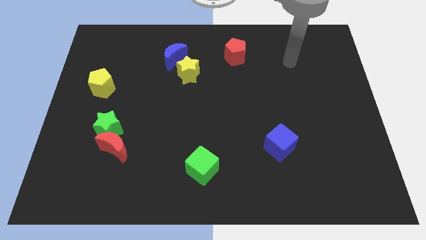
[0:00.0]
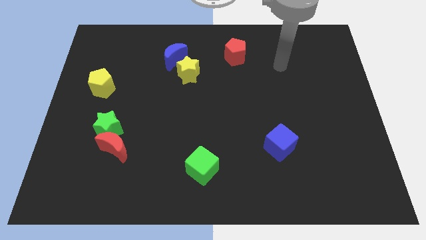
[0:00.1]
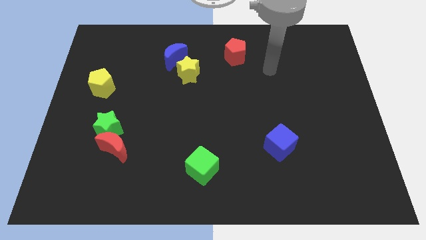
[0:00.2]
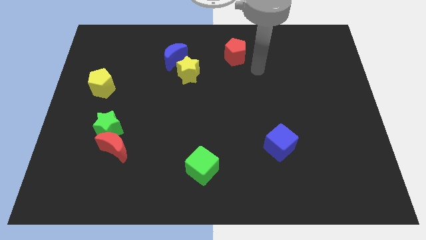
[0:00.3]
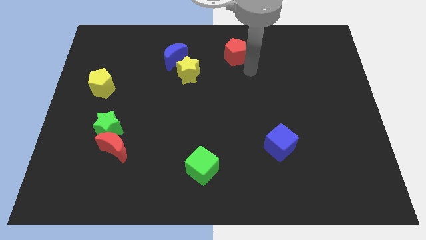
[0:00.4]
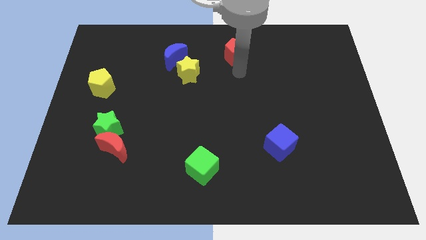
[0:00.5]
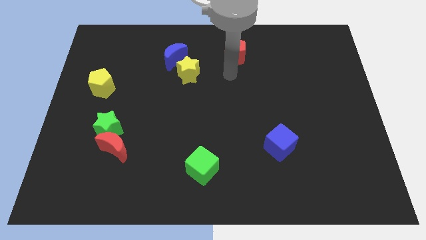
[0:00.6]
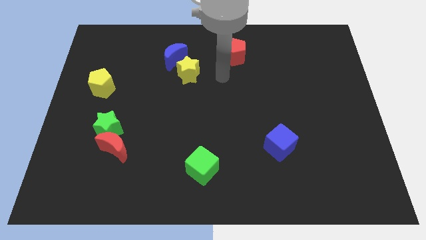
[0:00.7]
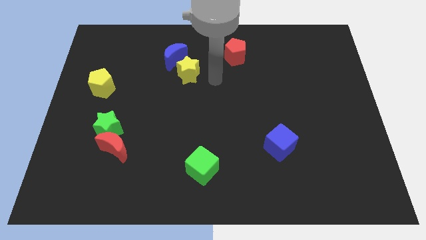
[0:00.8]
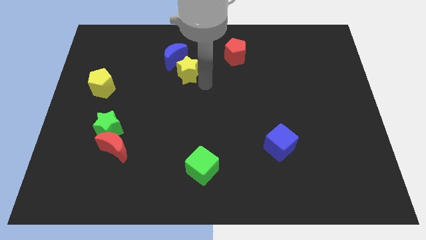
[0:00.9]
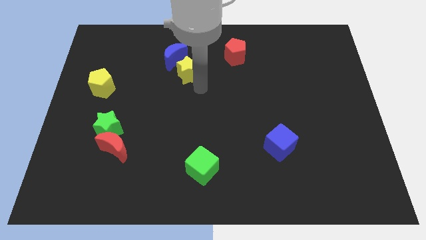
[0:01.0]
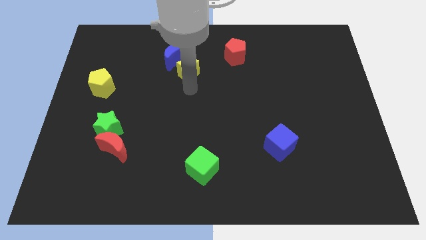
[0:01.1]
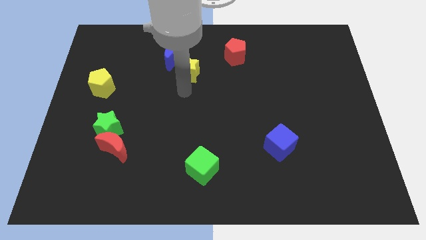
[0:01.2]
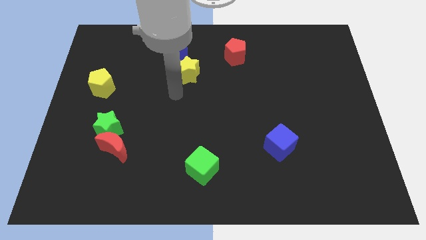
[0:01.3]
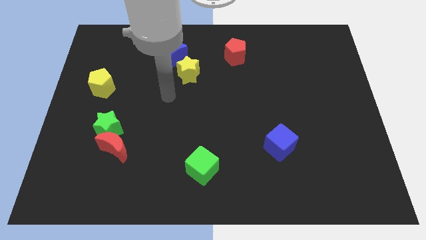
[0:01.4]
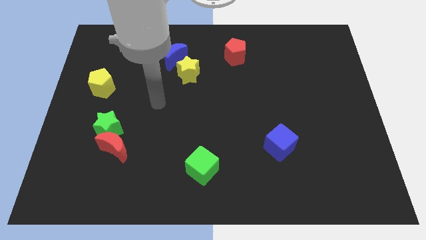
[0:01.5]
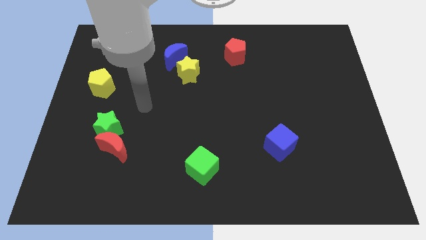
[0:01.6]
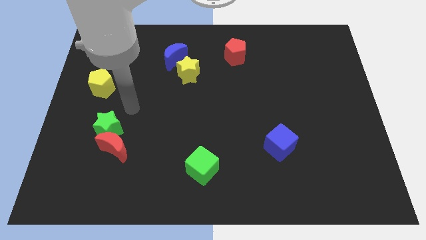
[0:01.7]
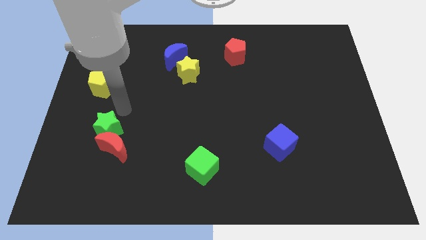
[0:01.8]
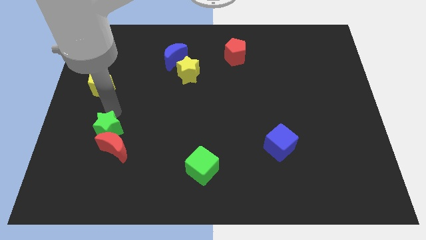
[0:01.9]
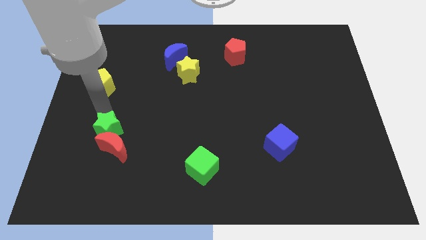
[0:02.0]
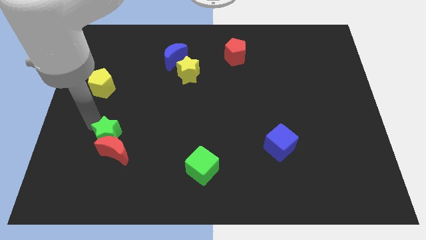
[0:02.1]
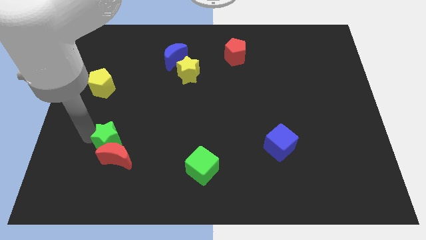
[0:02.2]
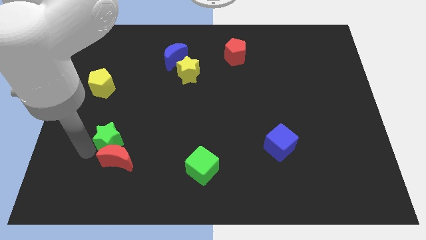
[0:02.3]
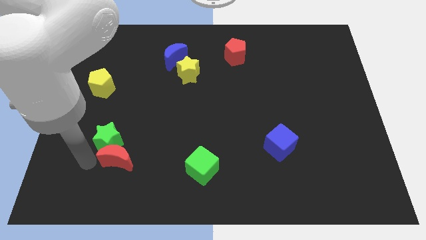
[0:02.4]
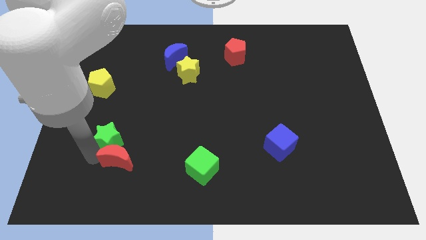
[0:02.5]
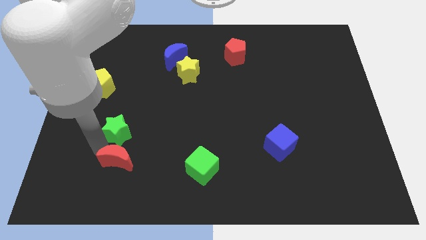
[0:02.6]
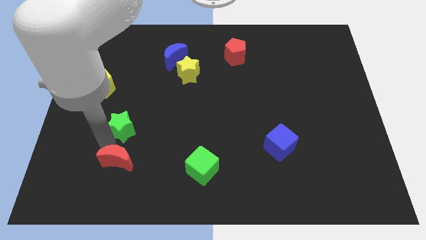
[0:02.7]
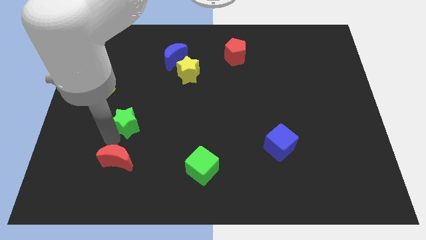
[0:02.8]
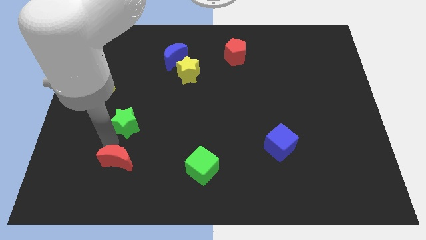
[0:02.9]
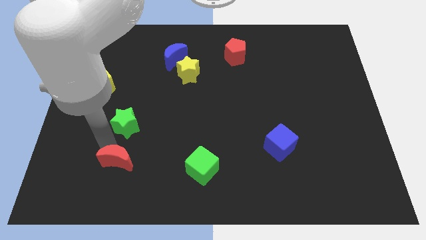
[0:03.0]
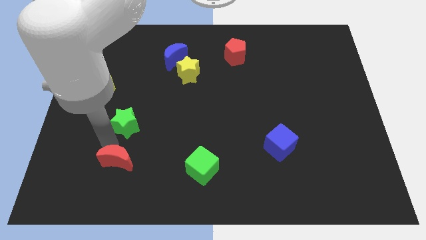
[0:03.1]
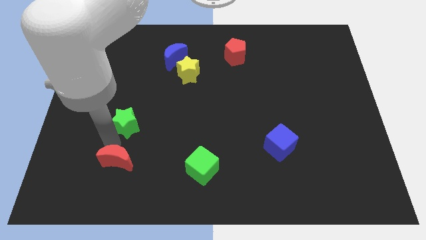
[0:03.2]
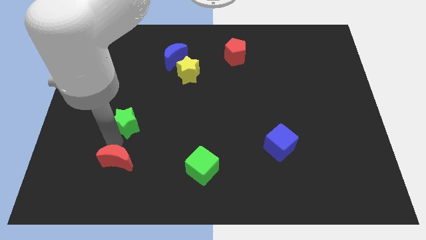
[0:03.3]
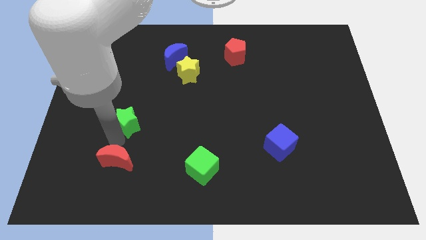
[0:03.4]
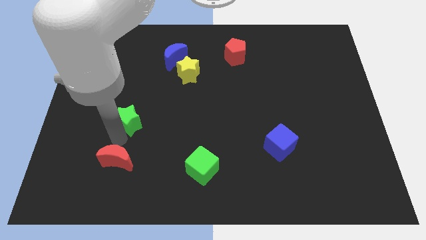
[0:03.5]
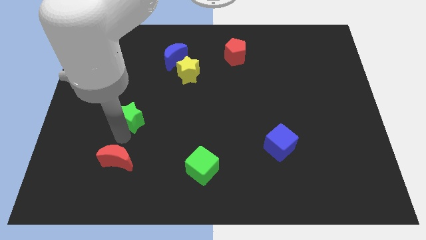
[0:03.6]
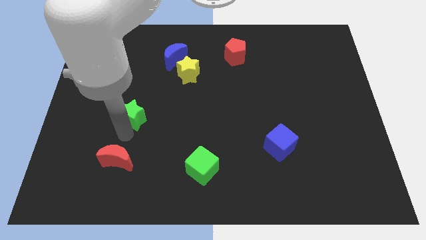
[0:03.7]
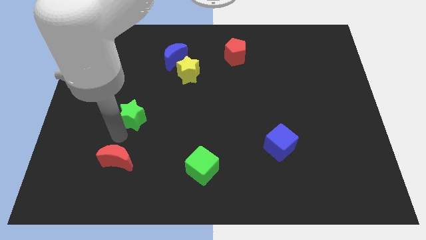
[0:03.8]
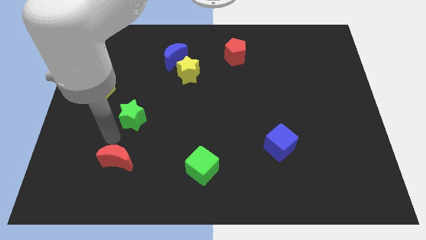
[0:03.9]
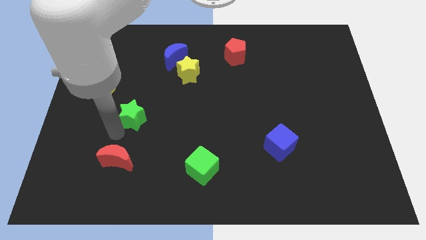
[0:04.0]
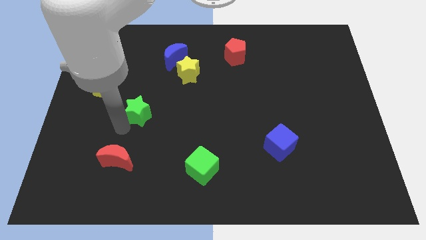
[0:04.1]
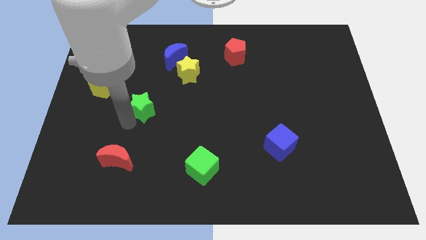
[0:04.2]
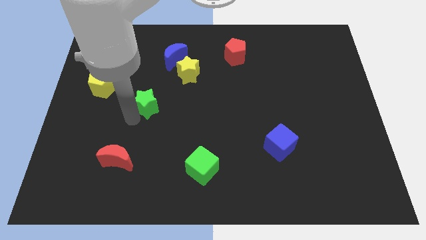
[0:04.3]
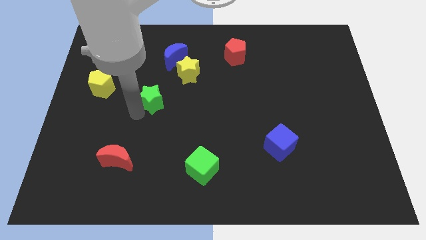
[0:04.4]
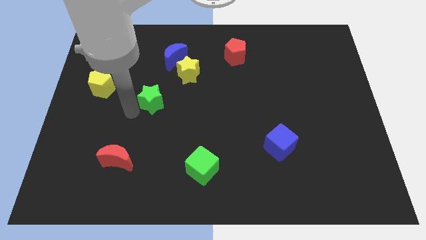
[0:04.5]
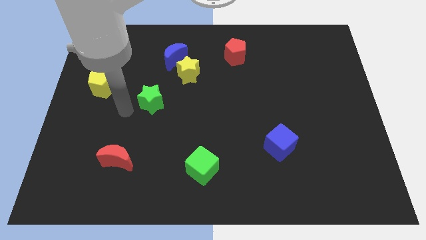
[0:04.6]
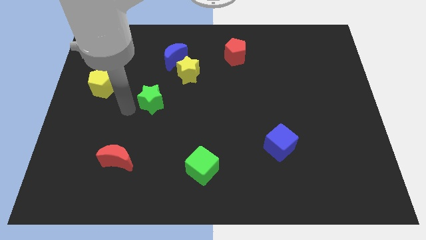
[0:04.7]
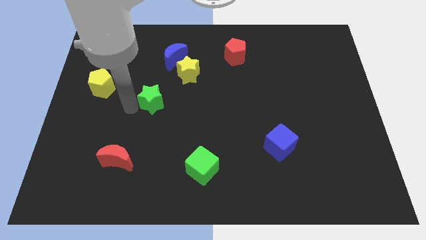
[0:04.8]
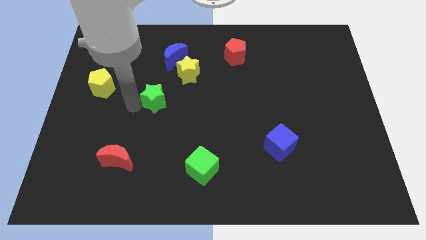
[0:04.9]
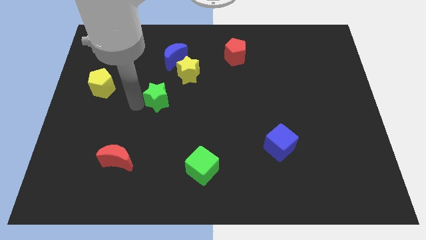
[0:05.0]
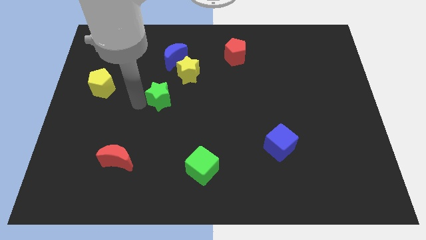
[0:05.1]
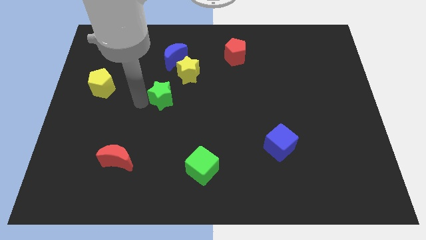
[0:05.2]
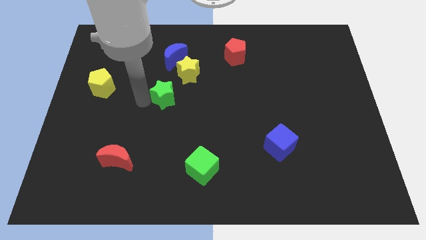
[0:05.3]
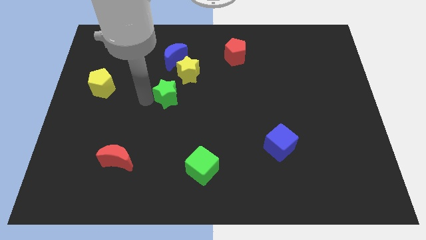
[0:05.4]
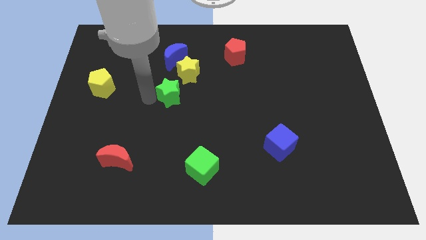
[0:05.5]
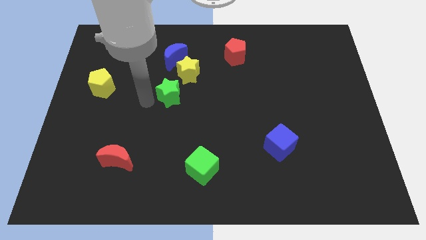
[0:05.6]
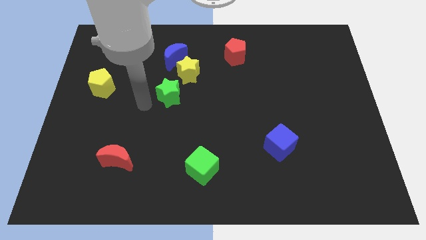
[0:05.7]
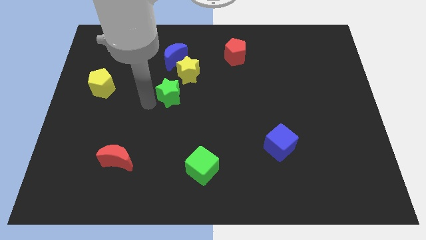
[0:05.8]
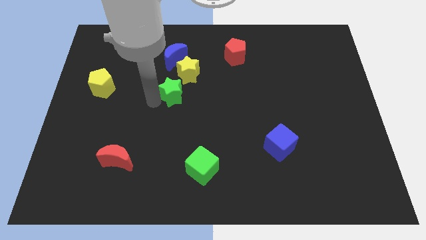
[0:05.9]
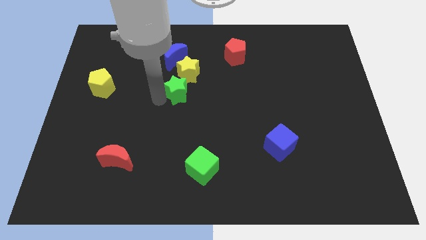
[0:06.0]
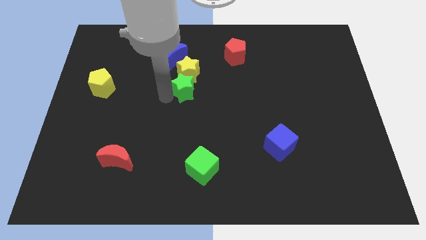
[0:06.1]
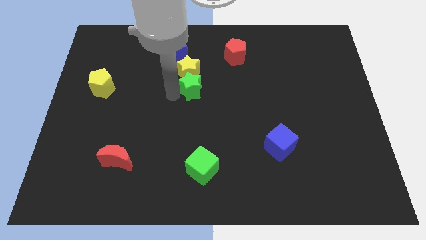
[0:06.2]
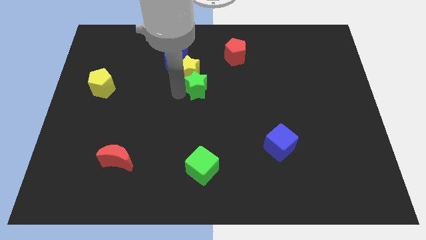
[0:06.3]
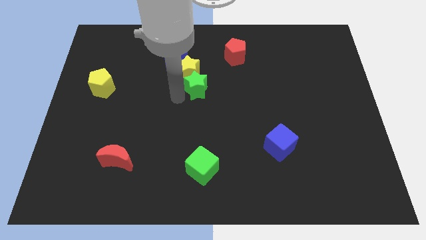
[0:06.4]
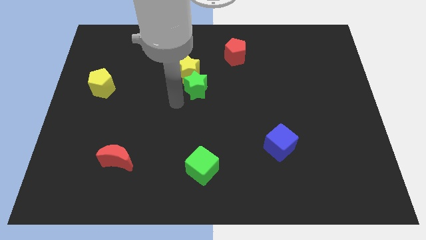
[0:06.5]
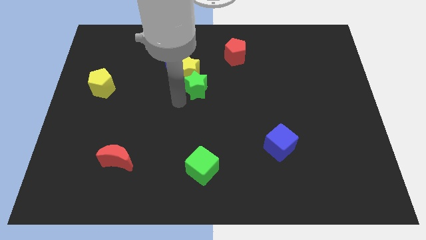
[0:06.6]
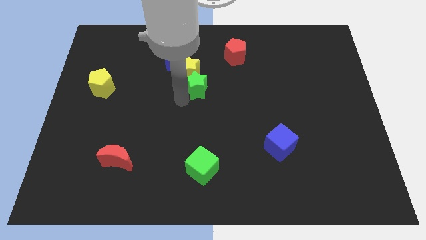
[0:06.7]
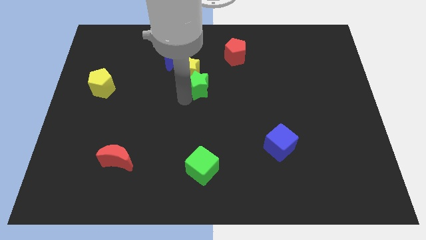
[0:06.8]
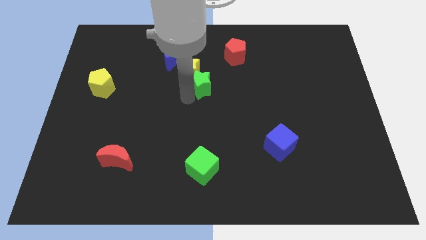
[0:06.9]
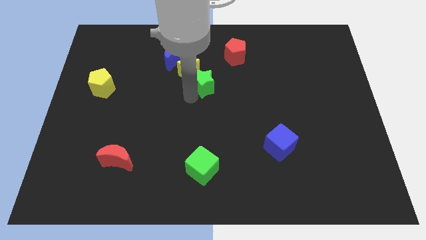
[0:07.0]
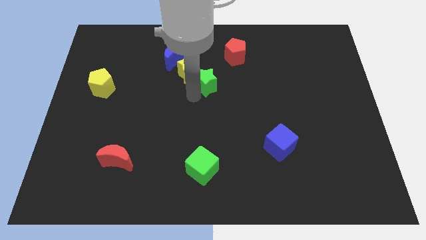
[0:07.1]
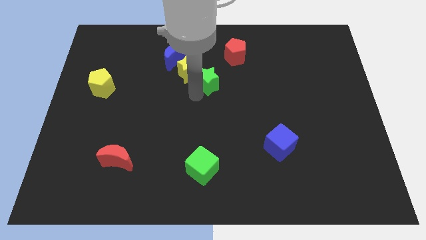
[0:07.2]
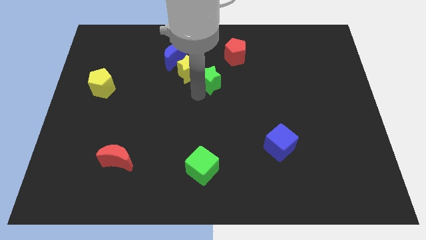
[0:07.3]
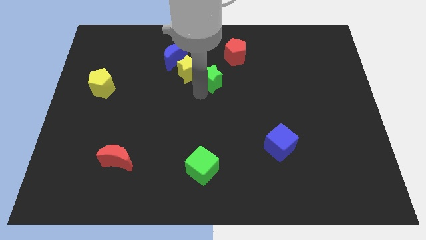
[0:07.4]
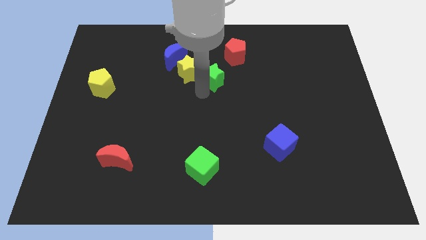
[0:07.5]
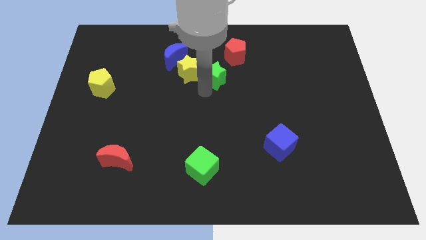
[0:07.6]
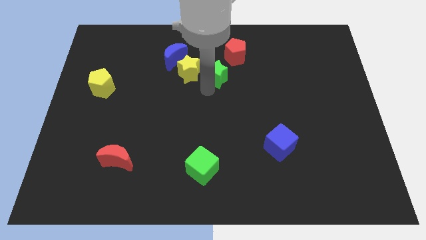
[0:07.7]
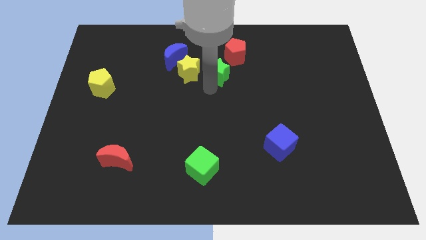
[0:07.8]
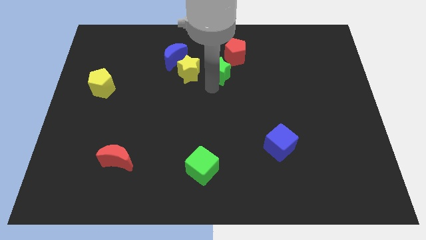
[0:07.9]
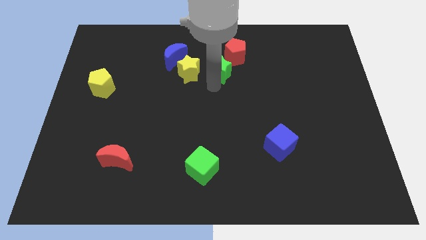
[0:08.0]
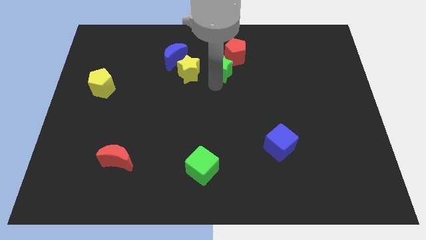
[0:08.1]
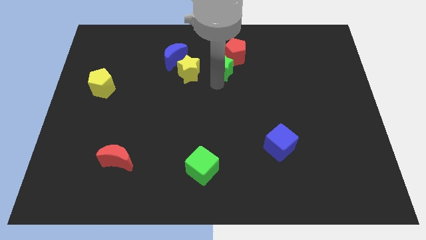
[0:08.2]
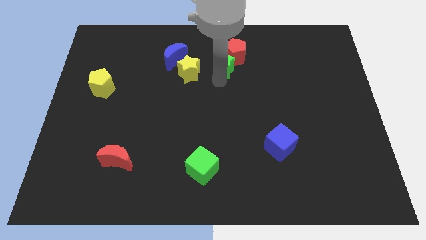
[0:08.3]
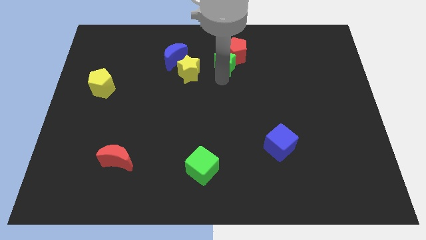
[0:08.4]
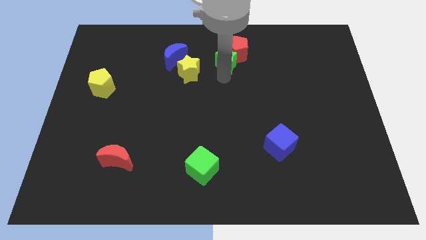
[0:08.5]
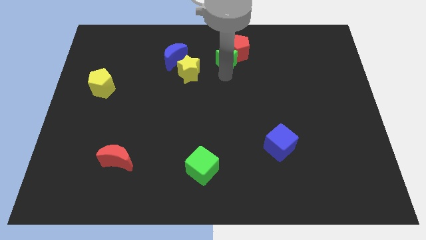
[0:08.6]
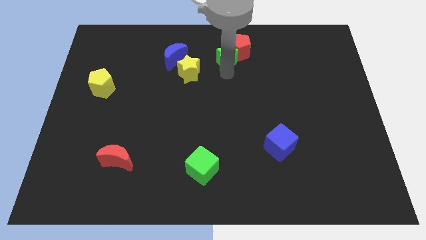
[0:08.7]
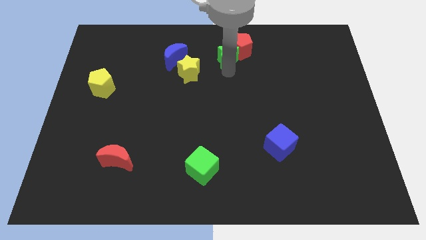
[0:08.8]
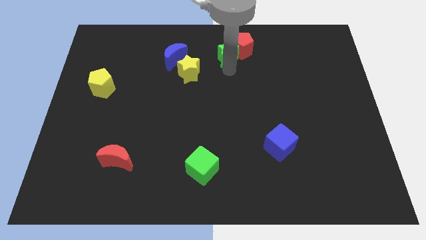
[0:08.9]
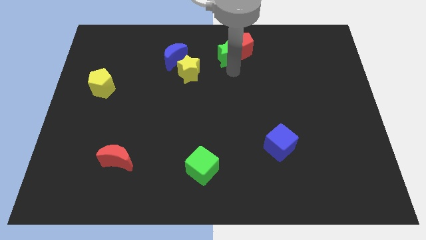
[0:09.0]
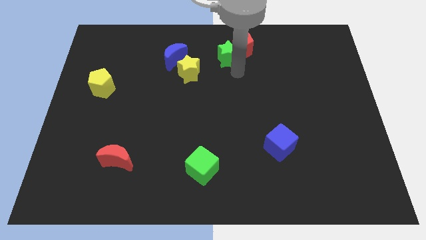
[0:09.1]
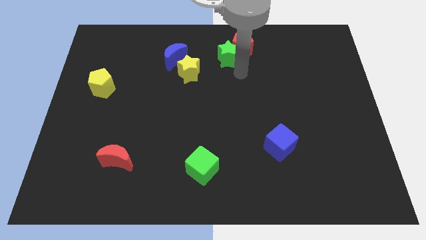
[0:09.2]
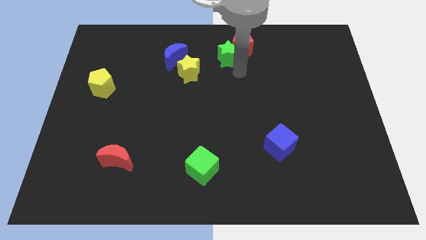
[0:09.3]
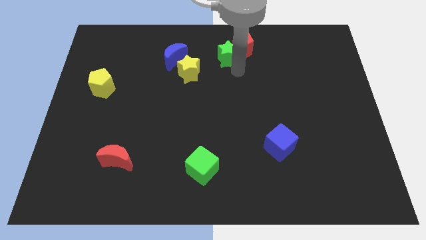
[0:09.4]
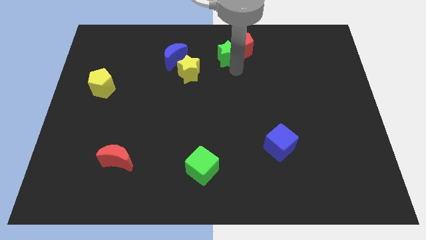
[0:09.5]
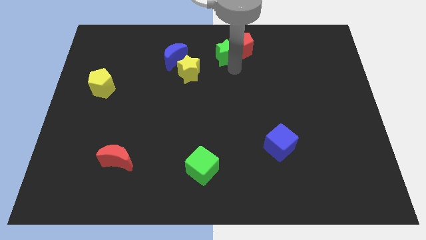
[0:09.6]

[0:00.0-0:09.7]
push the green star to the top side
